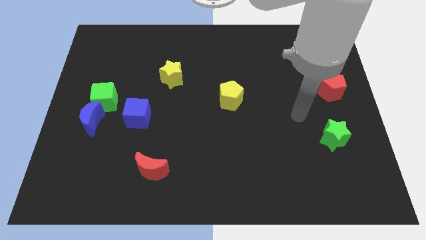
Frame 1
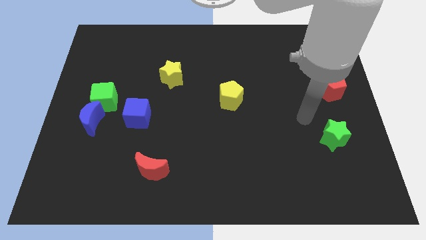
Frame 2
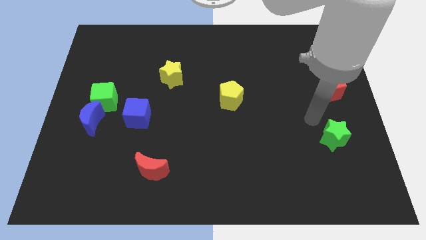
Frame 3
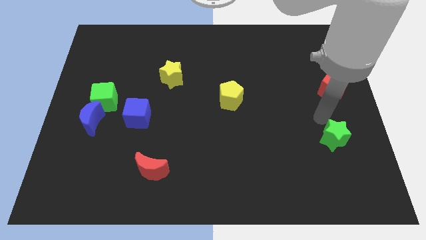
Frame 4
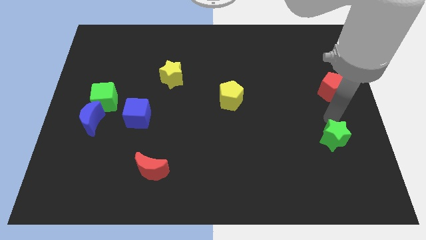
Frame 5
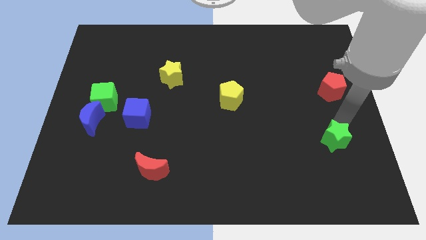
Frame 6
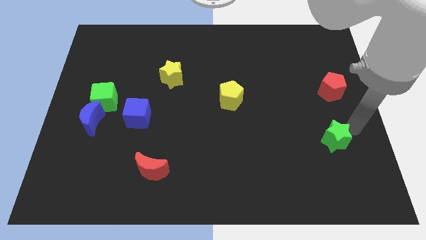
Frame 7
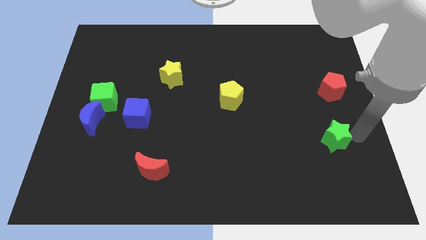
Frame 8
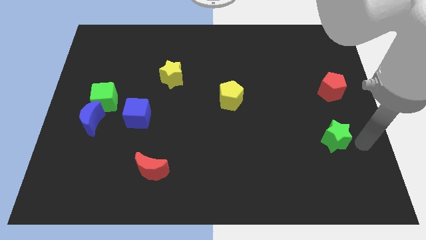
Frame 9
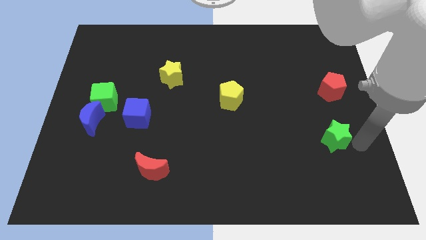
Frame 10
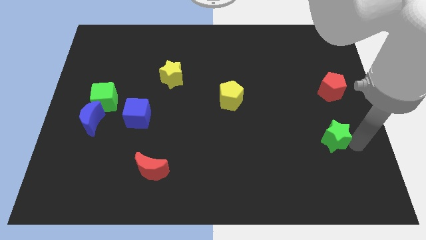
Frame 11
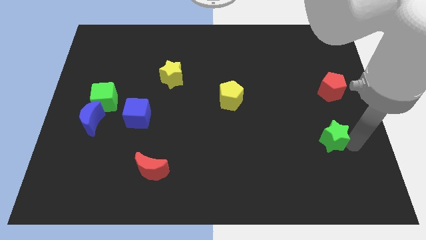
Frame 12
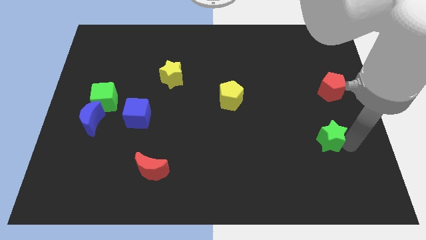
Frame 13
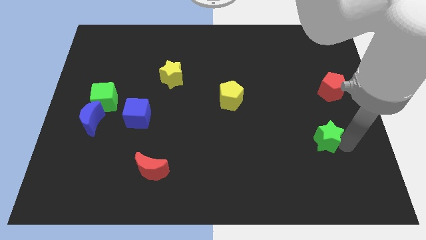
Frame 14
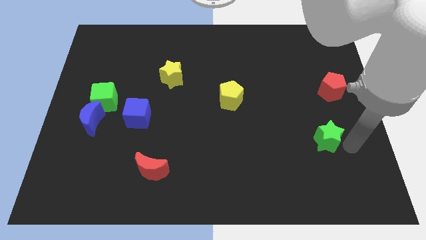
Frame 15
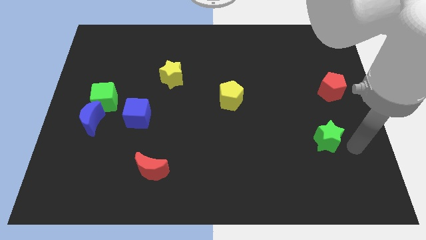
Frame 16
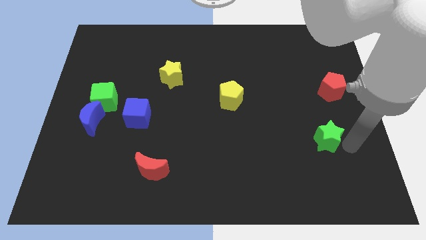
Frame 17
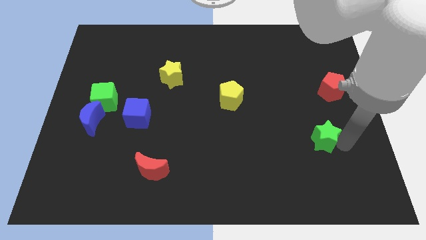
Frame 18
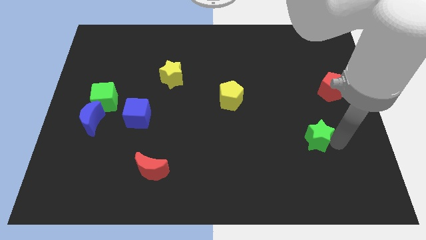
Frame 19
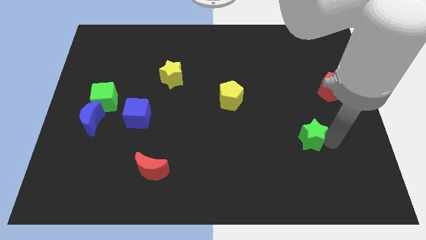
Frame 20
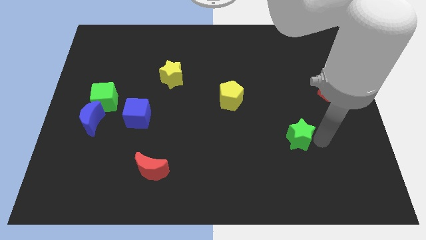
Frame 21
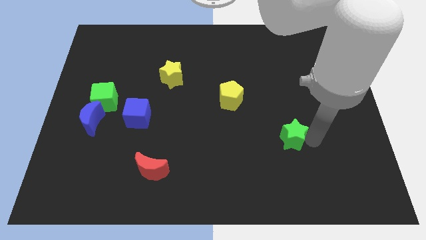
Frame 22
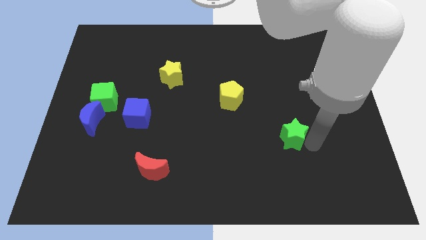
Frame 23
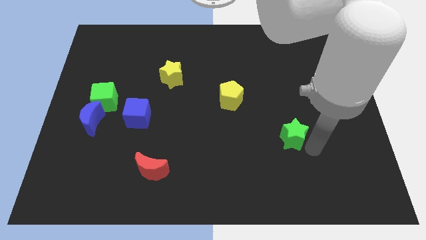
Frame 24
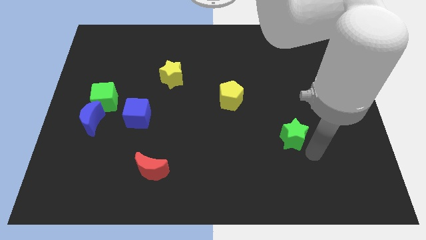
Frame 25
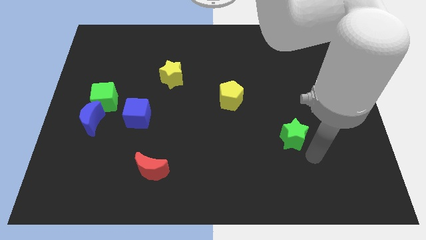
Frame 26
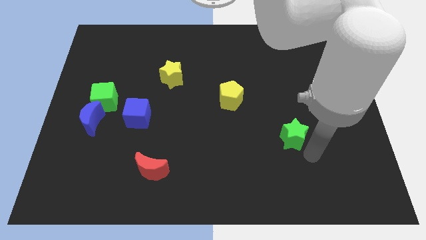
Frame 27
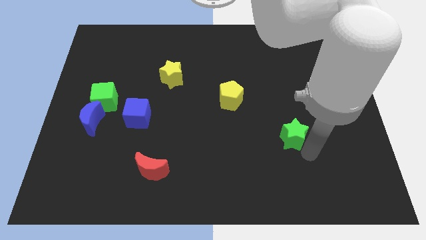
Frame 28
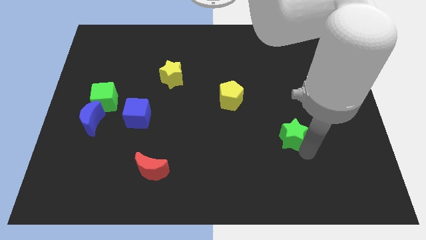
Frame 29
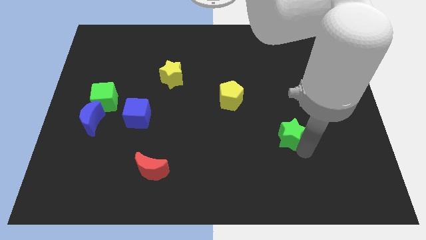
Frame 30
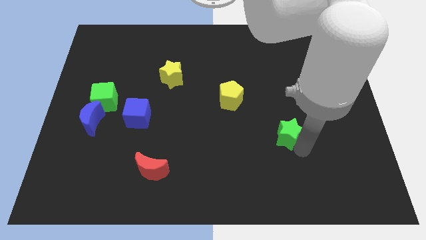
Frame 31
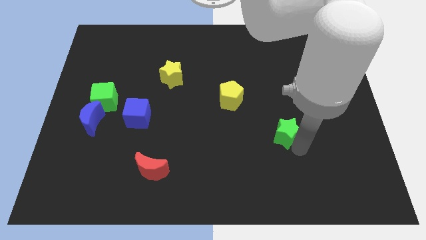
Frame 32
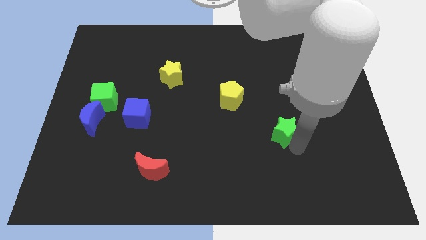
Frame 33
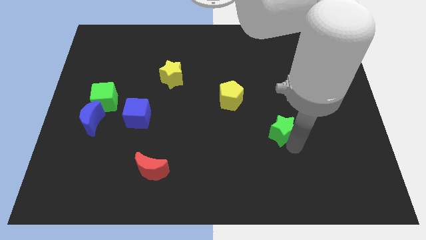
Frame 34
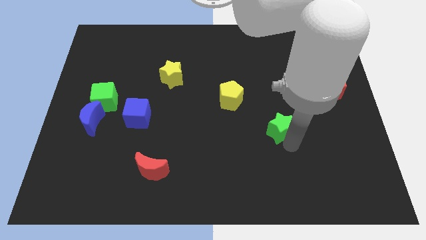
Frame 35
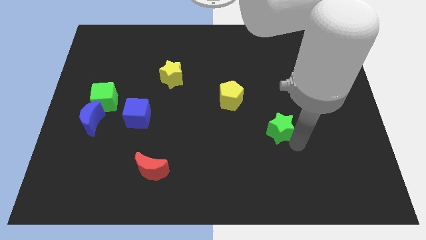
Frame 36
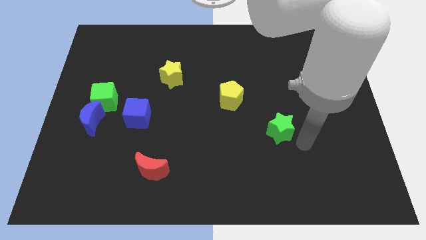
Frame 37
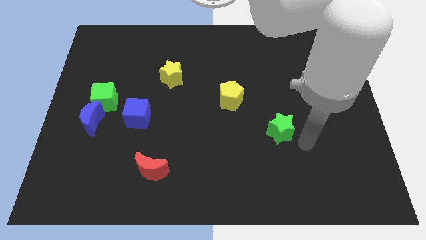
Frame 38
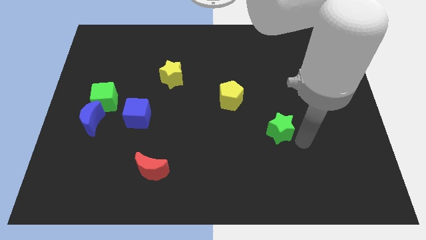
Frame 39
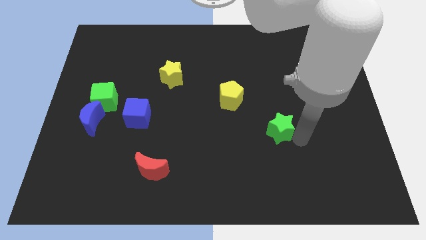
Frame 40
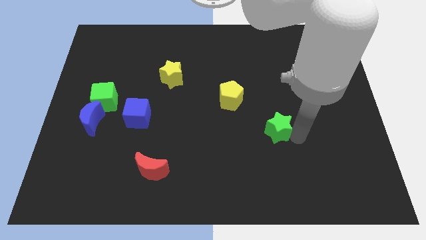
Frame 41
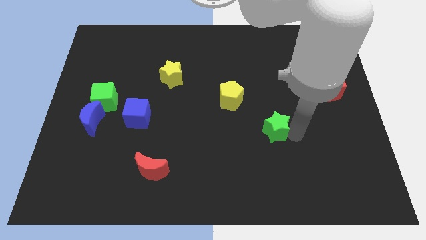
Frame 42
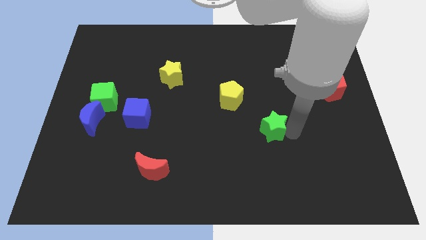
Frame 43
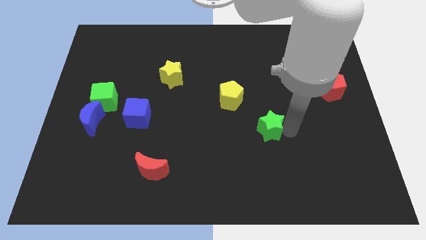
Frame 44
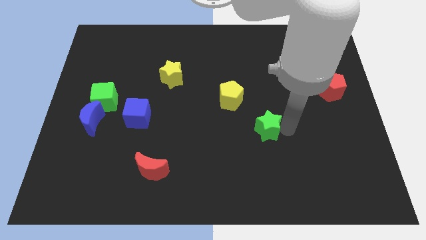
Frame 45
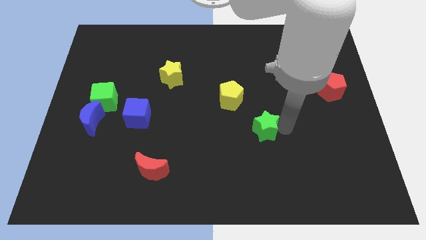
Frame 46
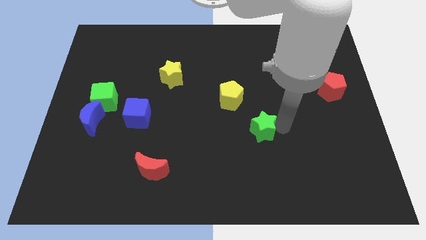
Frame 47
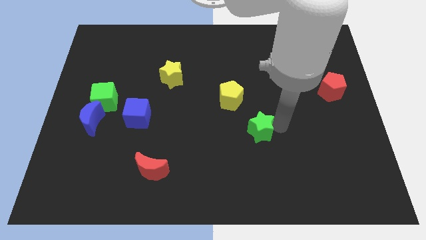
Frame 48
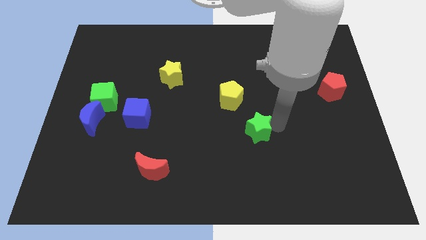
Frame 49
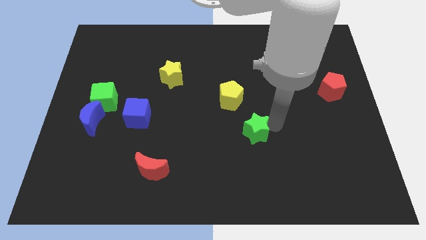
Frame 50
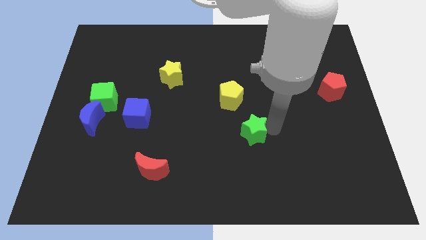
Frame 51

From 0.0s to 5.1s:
put the green star to the middle of the board

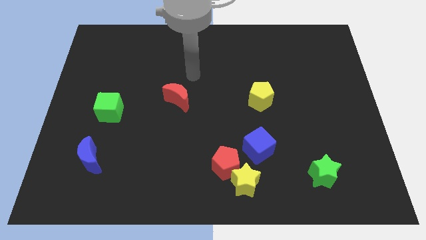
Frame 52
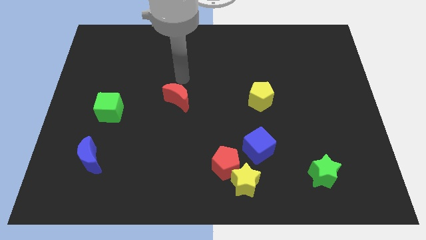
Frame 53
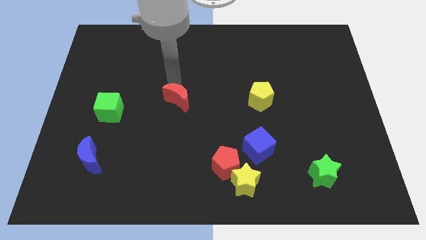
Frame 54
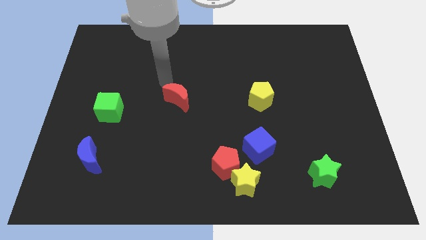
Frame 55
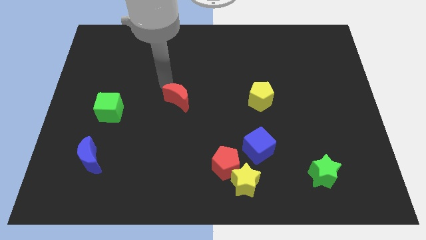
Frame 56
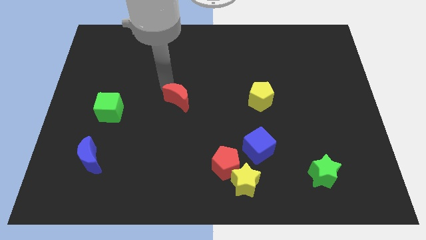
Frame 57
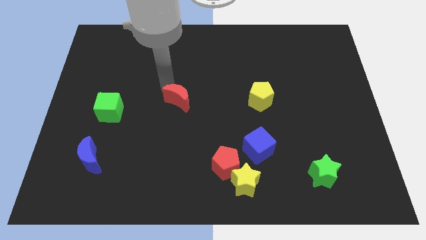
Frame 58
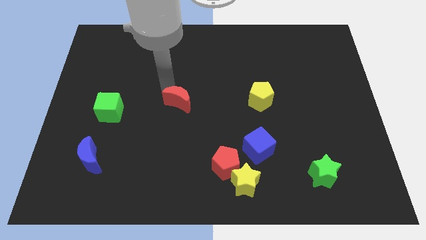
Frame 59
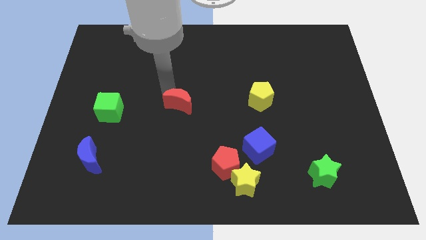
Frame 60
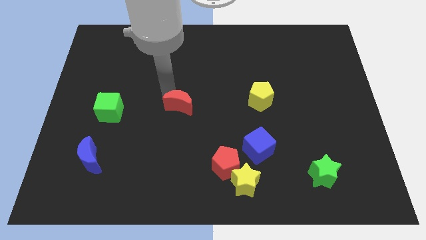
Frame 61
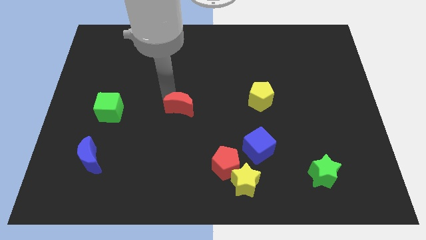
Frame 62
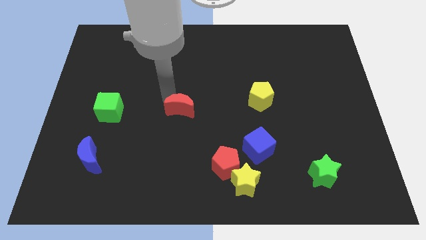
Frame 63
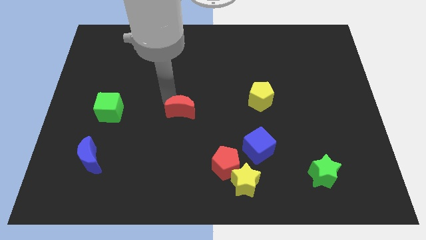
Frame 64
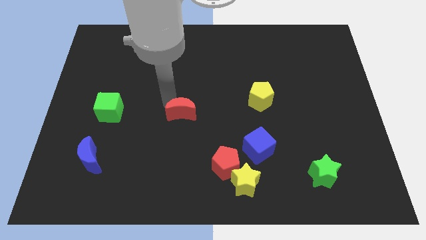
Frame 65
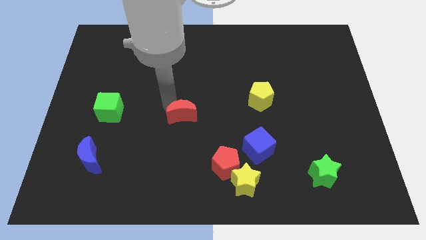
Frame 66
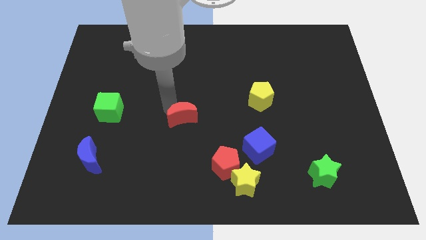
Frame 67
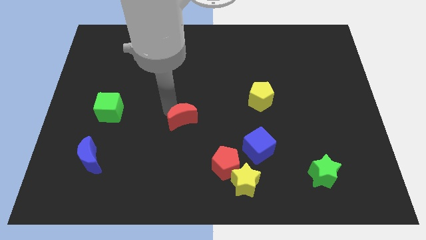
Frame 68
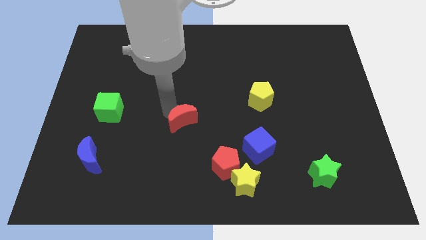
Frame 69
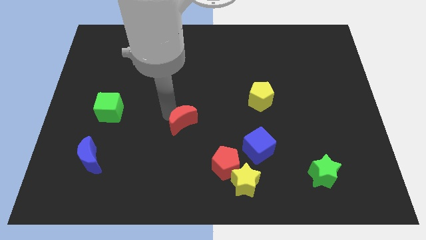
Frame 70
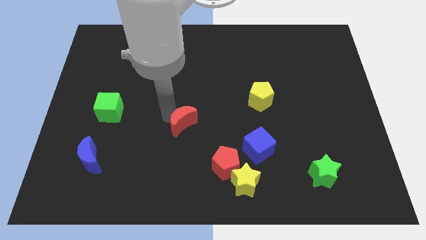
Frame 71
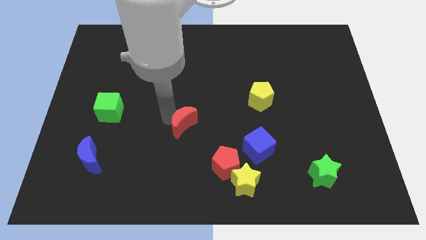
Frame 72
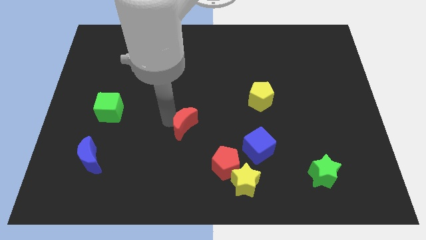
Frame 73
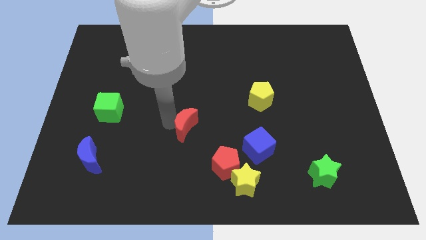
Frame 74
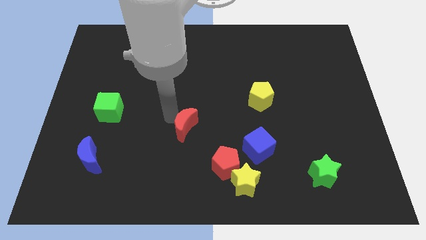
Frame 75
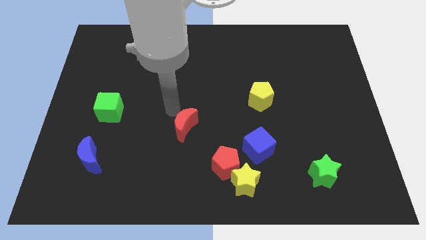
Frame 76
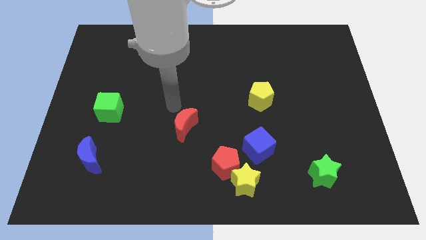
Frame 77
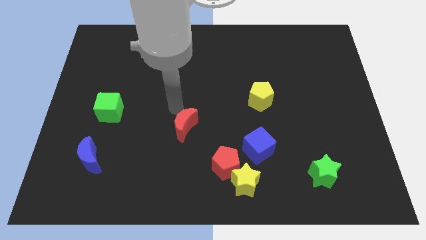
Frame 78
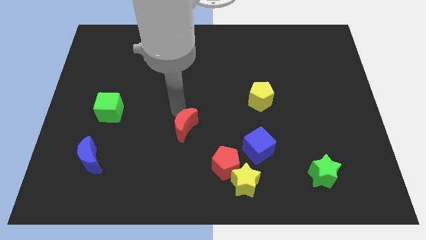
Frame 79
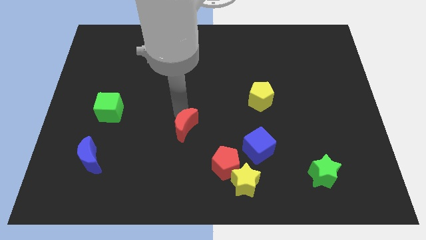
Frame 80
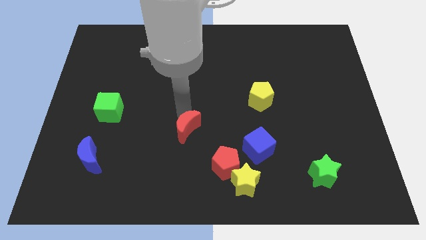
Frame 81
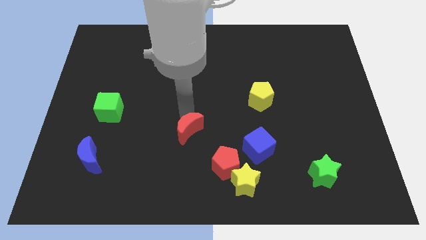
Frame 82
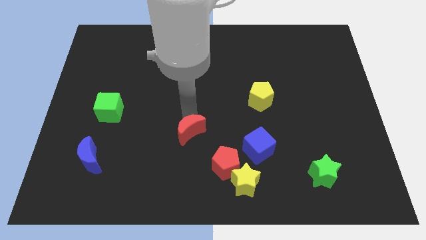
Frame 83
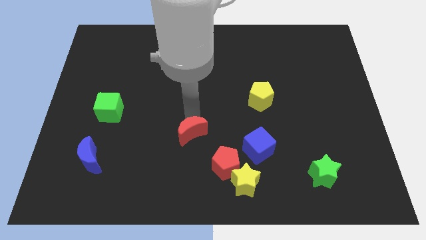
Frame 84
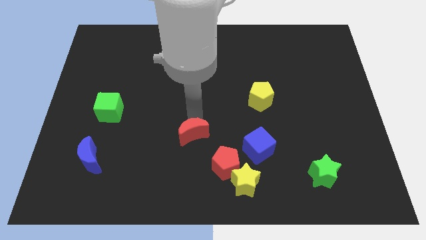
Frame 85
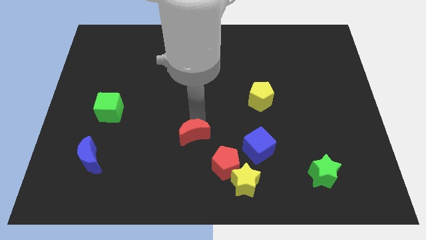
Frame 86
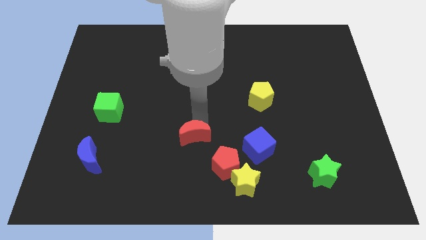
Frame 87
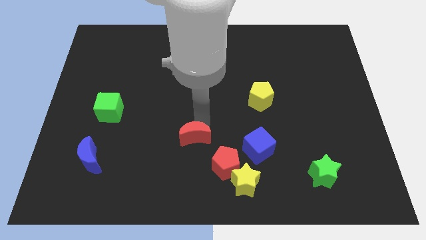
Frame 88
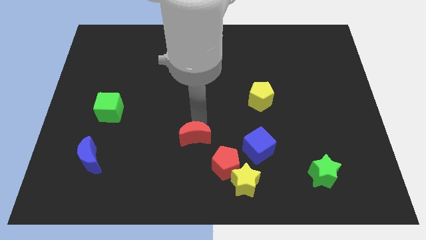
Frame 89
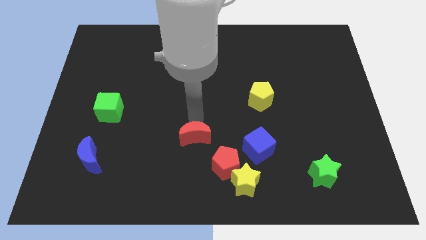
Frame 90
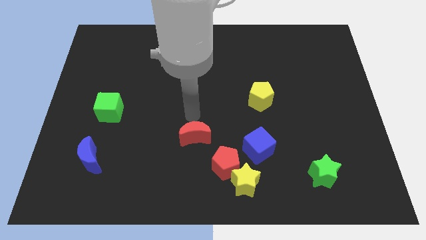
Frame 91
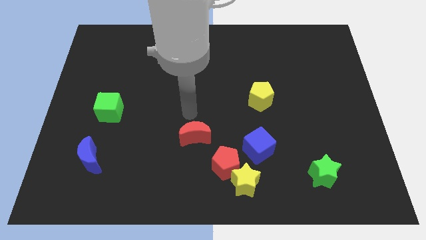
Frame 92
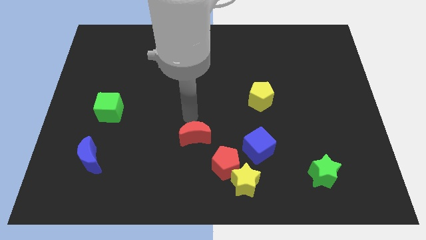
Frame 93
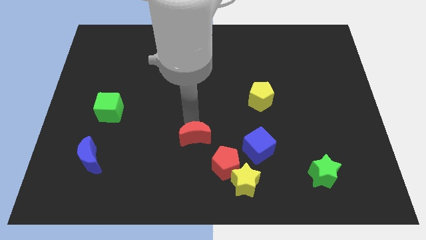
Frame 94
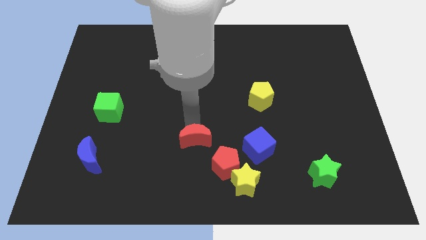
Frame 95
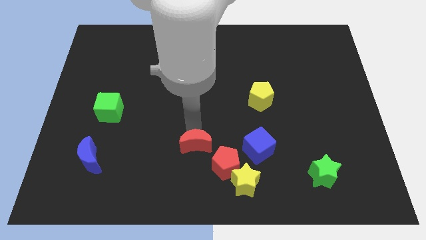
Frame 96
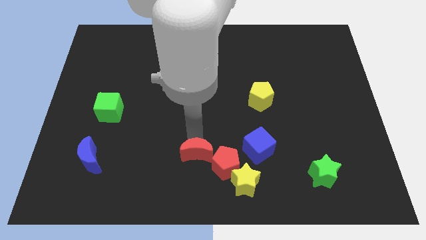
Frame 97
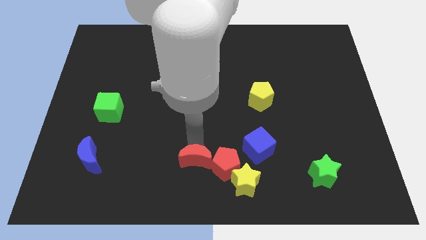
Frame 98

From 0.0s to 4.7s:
slide the red moon to the bottom
